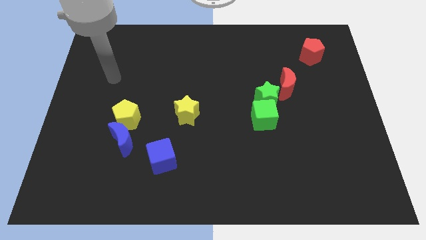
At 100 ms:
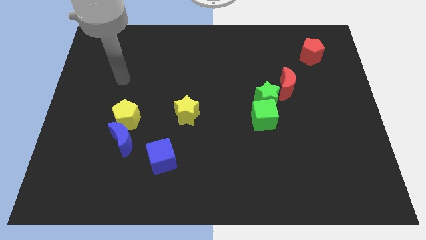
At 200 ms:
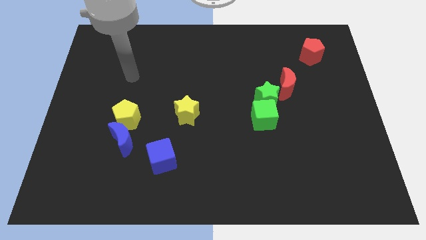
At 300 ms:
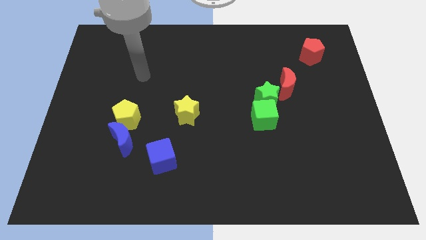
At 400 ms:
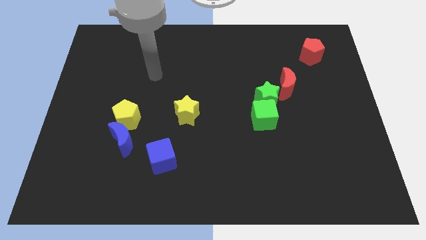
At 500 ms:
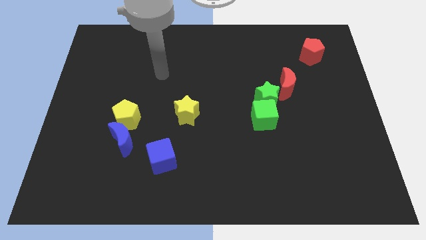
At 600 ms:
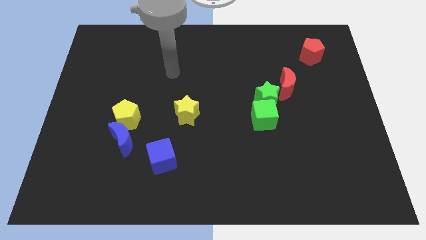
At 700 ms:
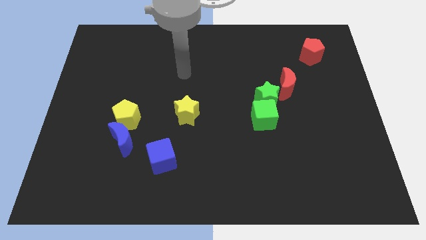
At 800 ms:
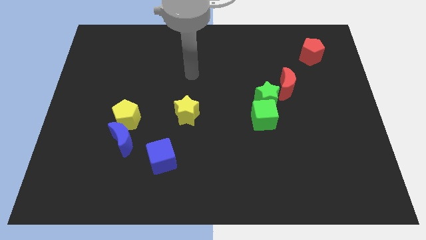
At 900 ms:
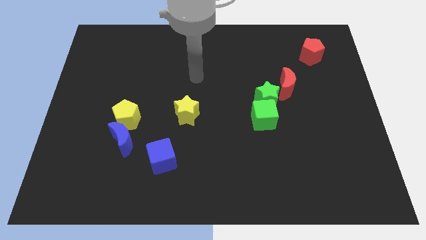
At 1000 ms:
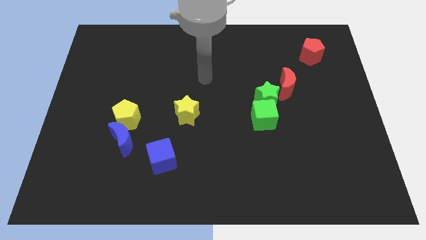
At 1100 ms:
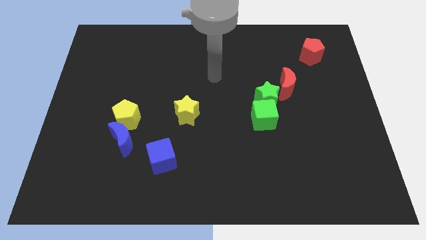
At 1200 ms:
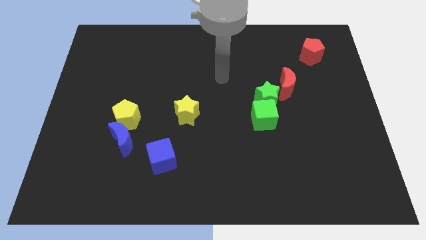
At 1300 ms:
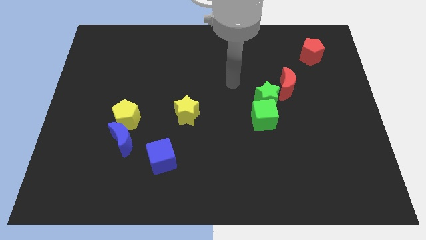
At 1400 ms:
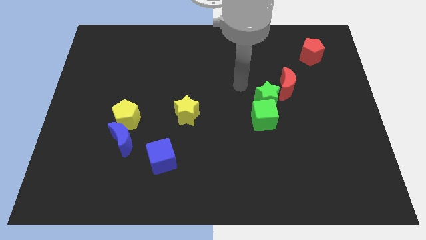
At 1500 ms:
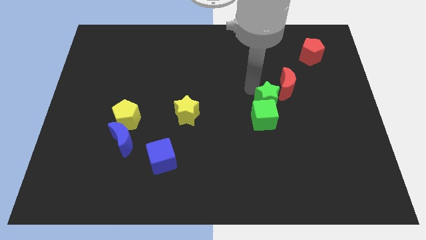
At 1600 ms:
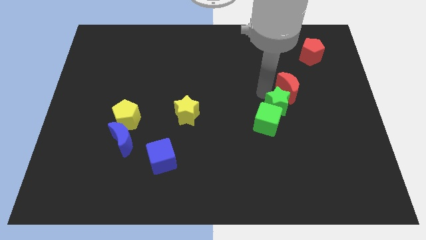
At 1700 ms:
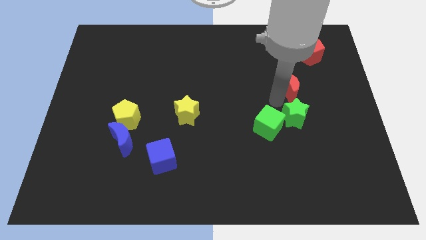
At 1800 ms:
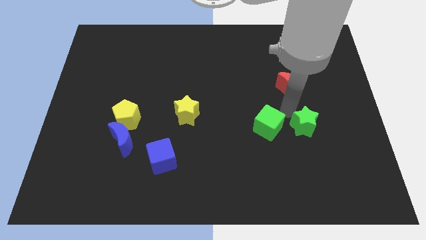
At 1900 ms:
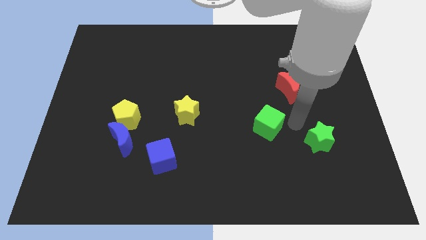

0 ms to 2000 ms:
pull the green cube apart from the green star

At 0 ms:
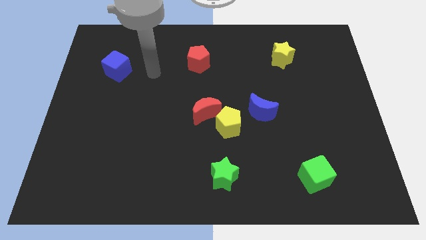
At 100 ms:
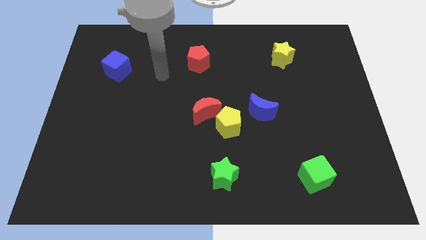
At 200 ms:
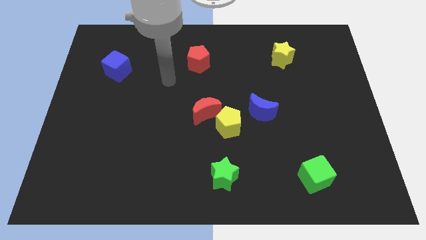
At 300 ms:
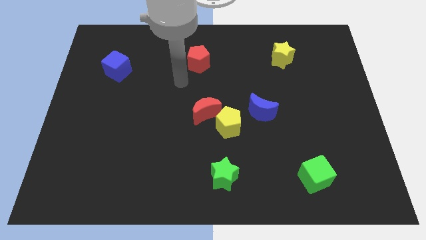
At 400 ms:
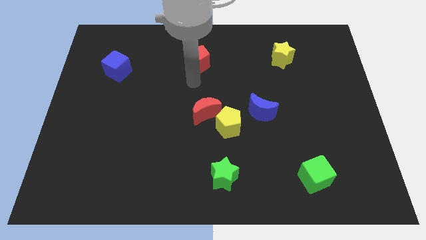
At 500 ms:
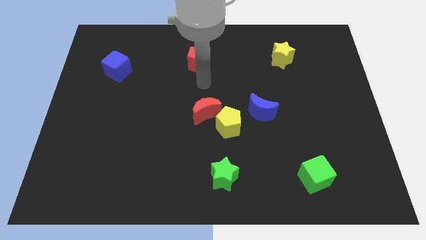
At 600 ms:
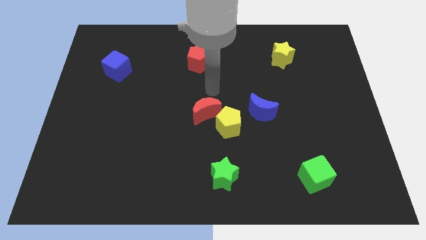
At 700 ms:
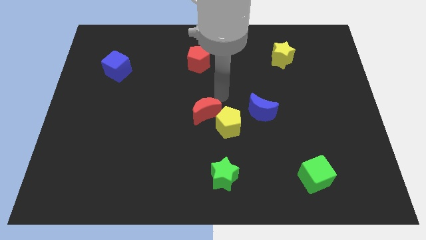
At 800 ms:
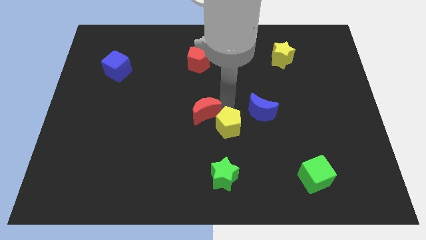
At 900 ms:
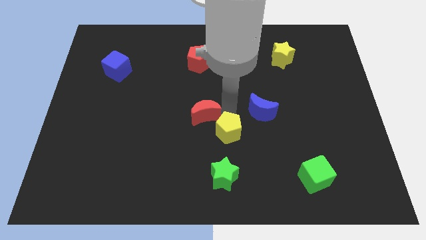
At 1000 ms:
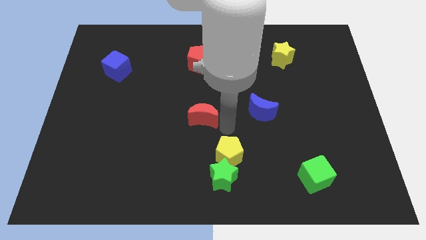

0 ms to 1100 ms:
move the red moon away from the yellow pentagon

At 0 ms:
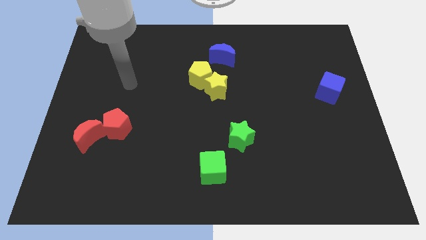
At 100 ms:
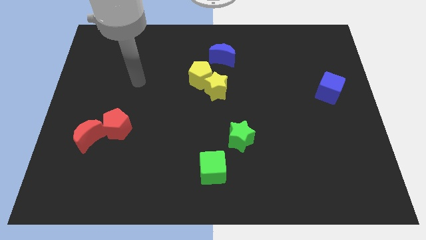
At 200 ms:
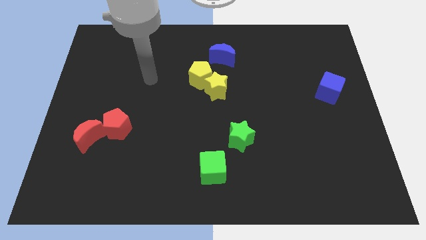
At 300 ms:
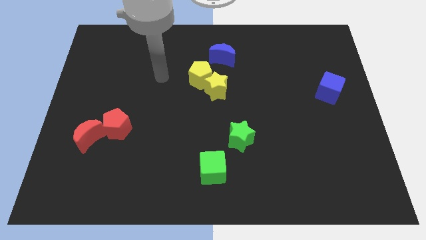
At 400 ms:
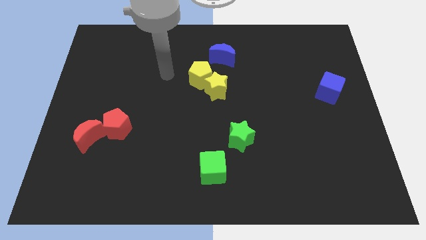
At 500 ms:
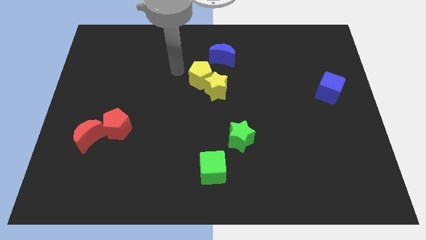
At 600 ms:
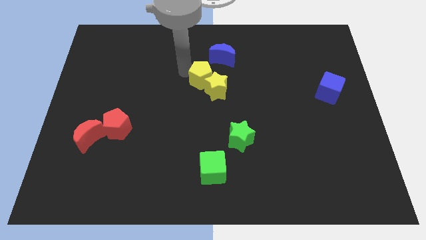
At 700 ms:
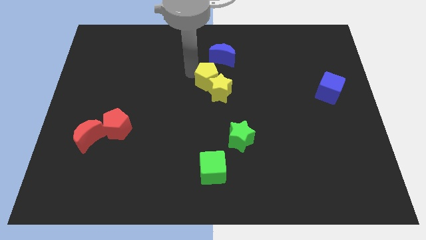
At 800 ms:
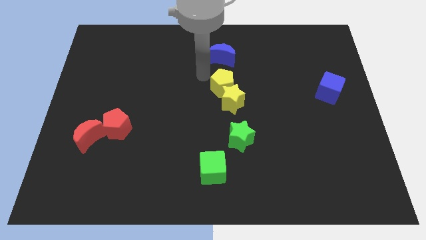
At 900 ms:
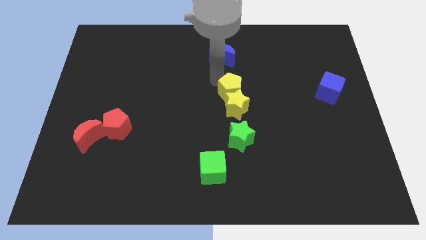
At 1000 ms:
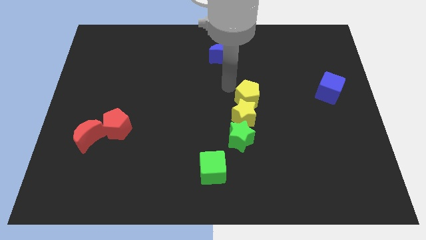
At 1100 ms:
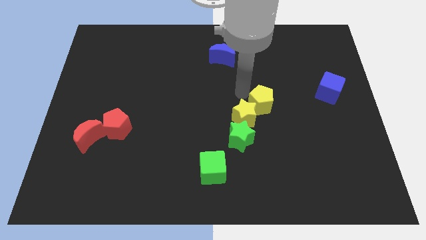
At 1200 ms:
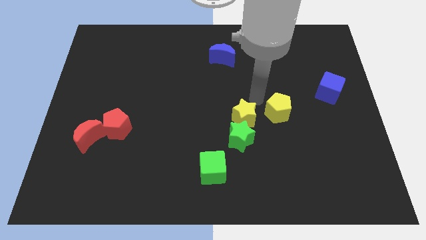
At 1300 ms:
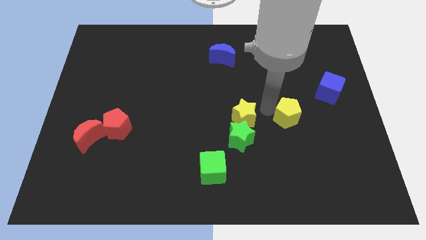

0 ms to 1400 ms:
separate the yellow star from the yellow pentagon

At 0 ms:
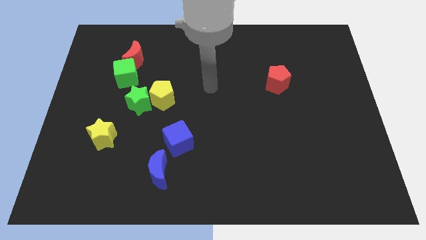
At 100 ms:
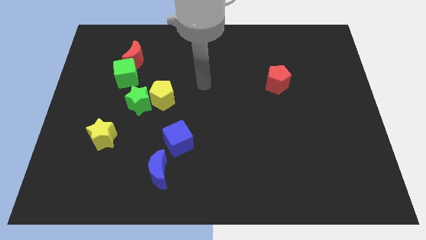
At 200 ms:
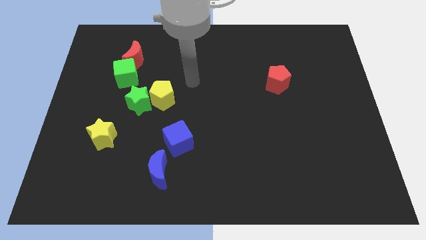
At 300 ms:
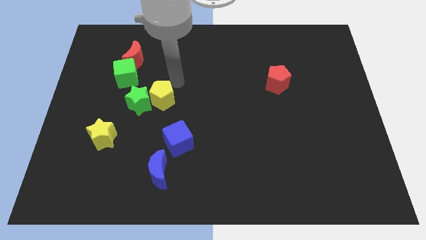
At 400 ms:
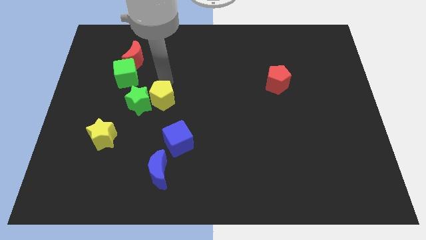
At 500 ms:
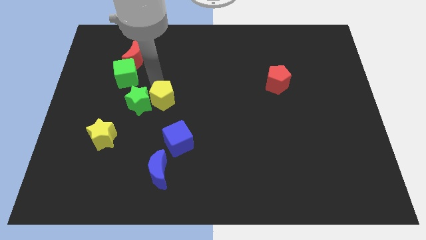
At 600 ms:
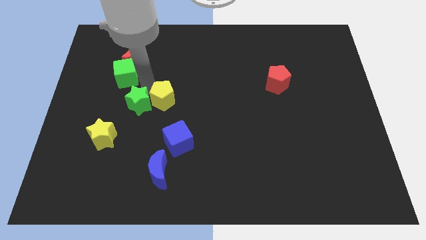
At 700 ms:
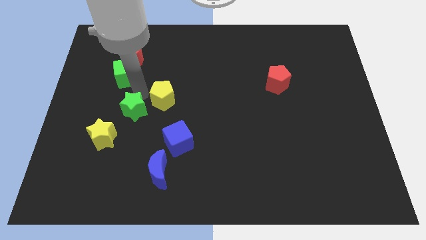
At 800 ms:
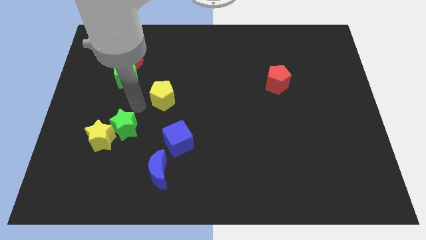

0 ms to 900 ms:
pull the yellow pentagon apart from the green star

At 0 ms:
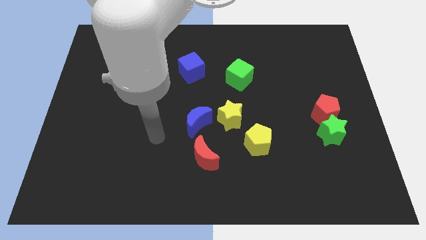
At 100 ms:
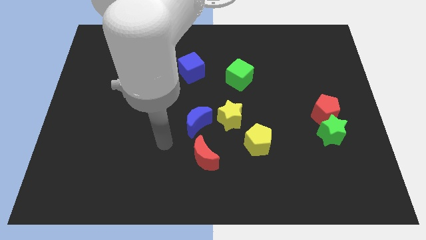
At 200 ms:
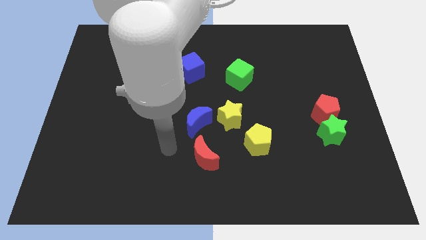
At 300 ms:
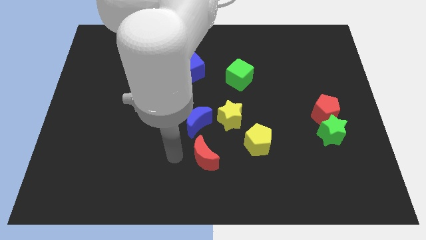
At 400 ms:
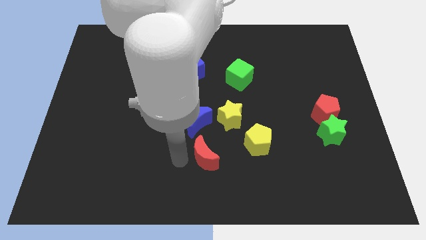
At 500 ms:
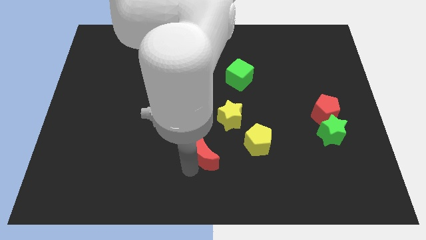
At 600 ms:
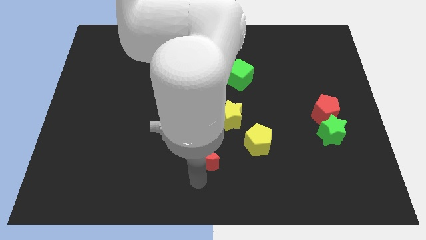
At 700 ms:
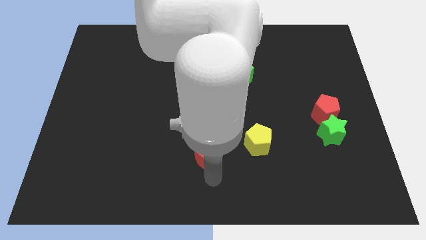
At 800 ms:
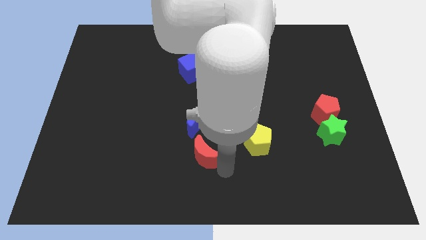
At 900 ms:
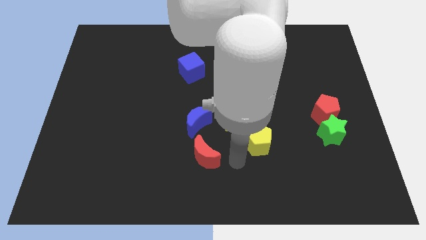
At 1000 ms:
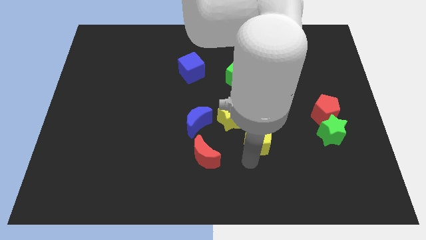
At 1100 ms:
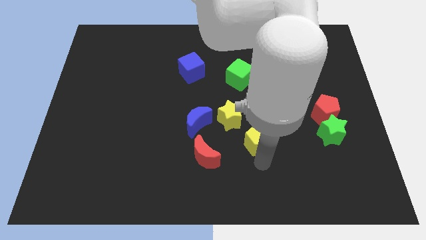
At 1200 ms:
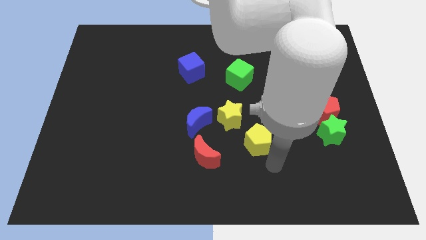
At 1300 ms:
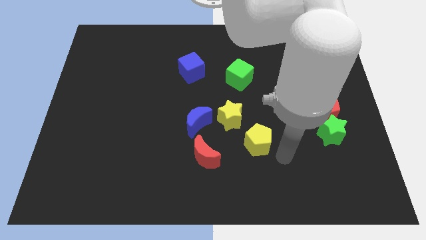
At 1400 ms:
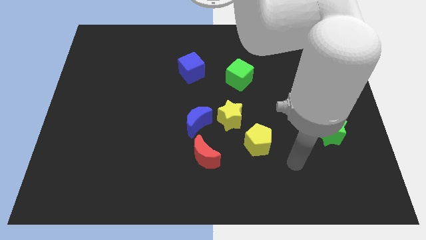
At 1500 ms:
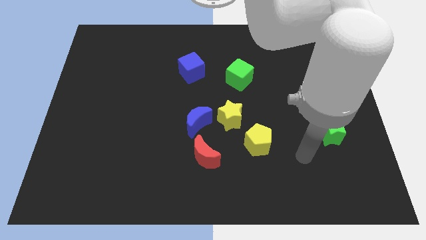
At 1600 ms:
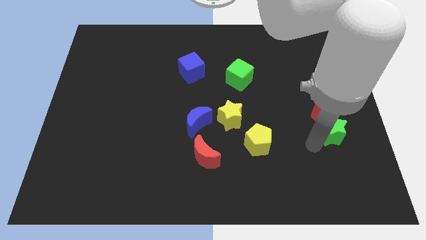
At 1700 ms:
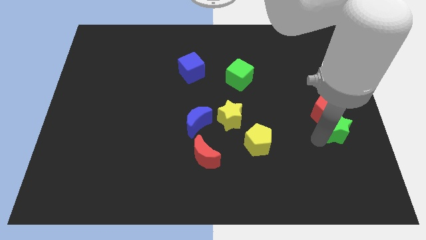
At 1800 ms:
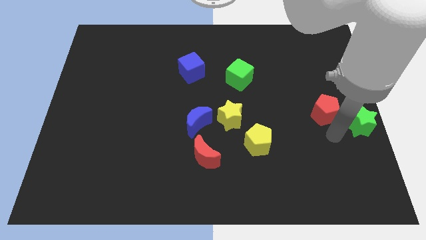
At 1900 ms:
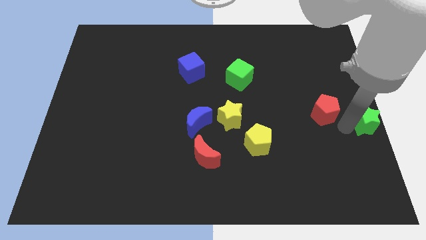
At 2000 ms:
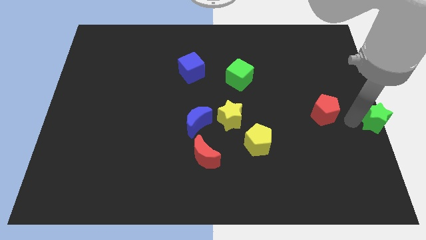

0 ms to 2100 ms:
move the red pentagon away from the green star

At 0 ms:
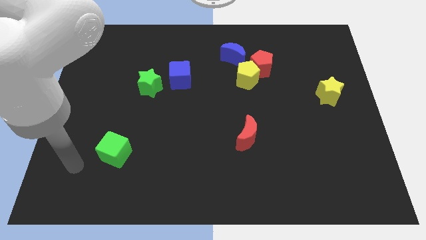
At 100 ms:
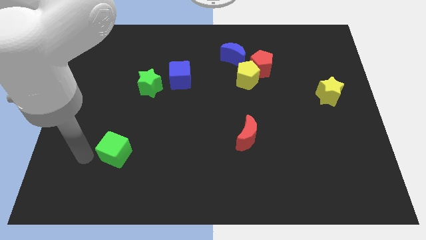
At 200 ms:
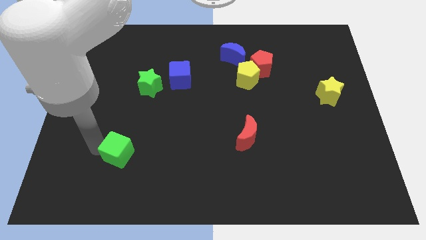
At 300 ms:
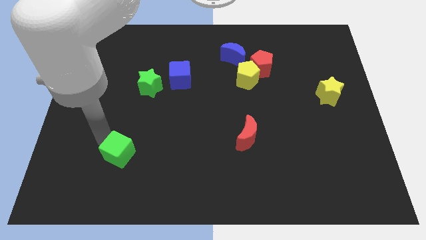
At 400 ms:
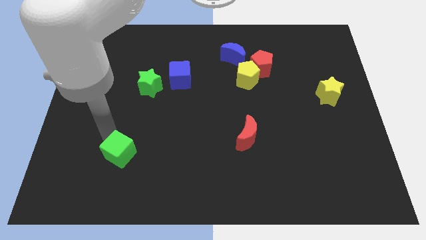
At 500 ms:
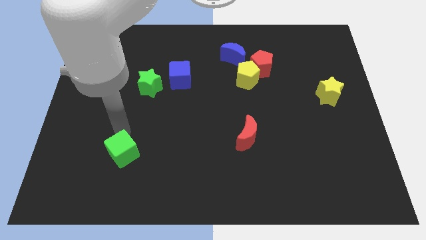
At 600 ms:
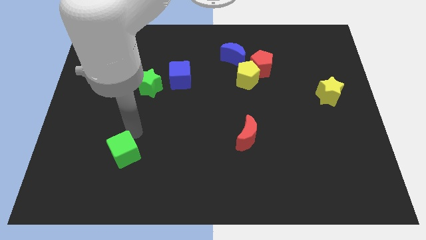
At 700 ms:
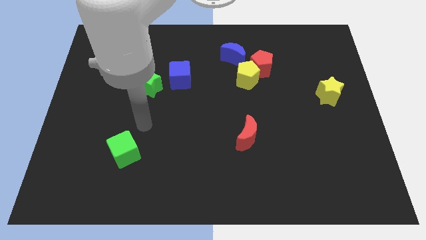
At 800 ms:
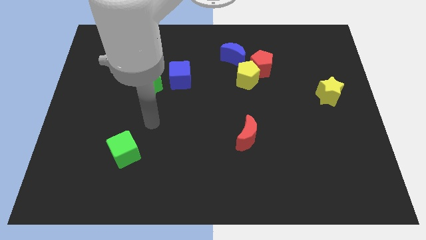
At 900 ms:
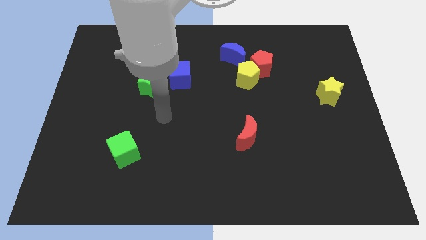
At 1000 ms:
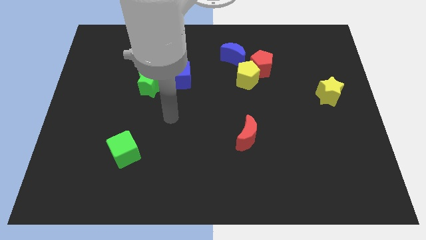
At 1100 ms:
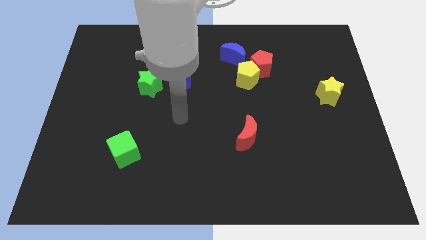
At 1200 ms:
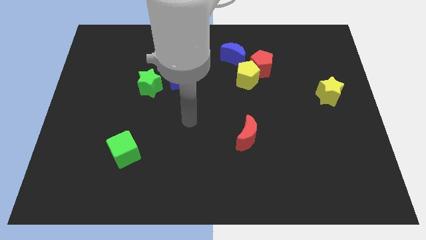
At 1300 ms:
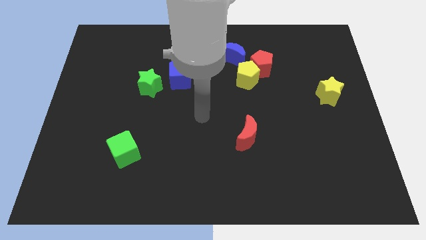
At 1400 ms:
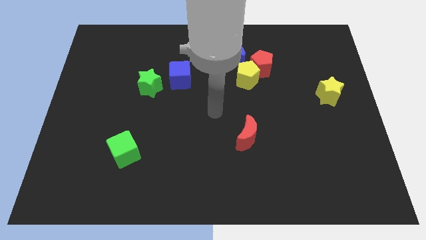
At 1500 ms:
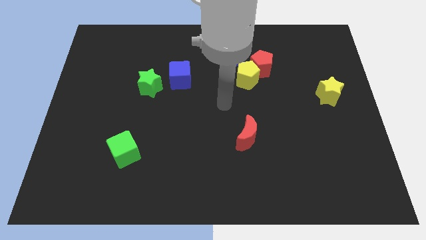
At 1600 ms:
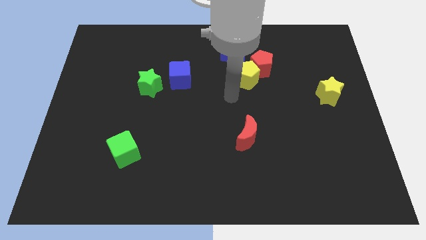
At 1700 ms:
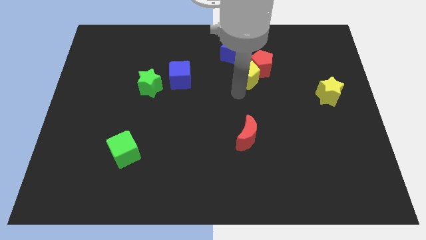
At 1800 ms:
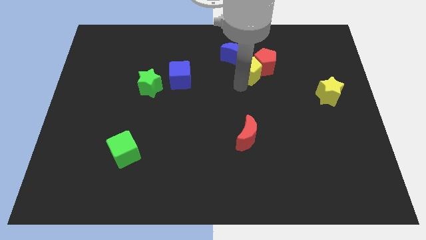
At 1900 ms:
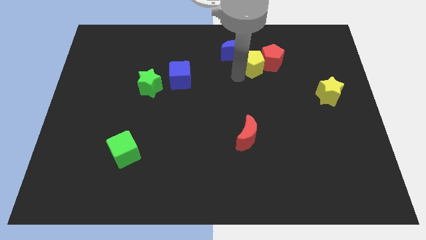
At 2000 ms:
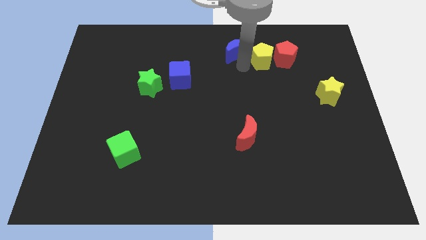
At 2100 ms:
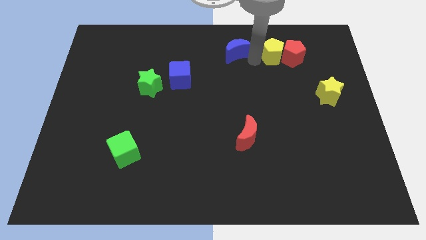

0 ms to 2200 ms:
separate the red pentagon from the yellow pentagon and blue moon
